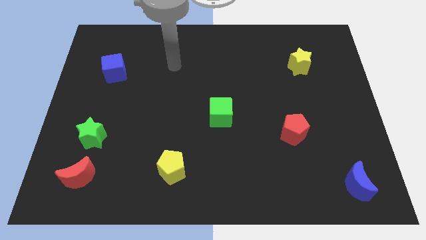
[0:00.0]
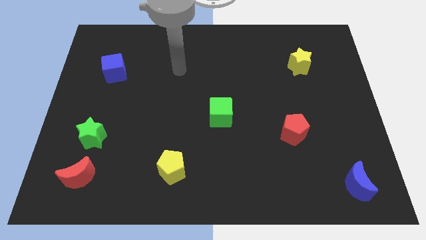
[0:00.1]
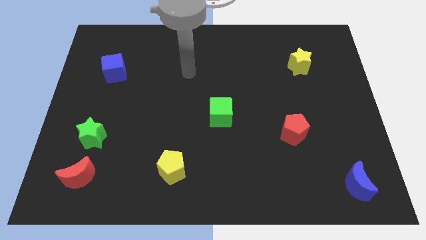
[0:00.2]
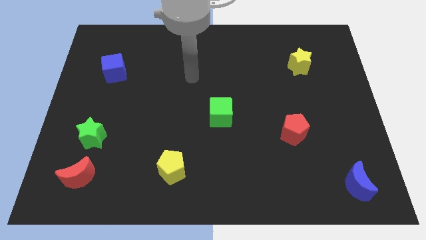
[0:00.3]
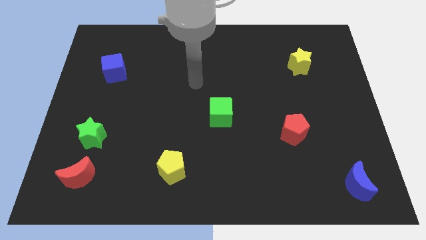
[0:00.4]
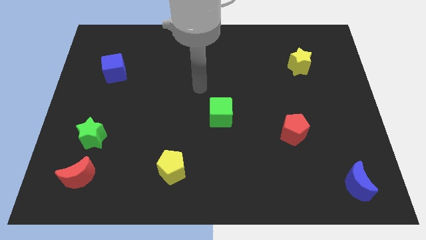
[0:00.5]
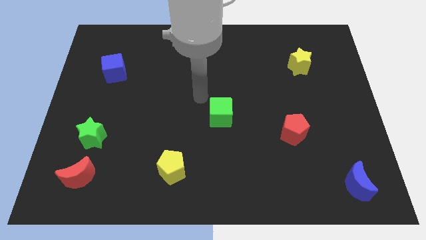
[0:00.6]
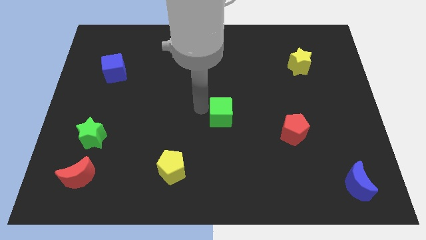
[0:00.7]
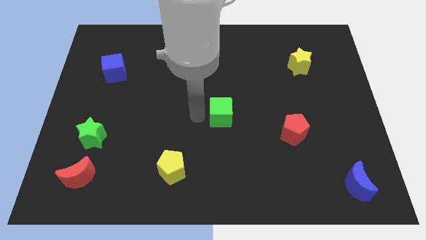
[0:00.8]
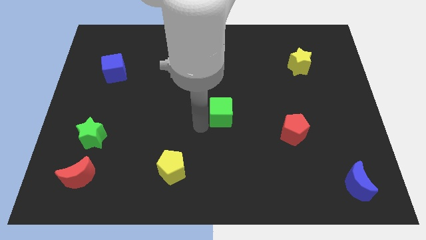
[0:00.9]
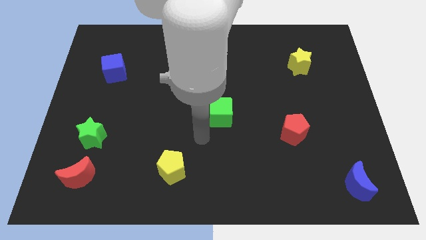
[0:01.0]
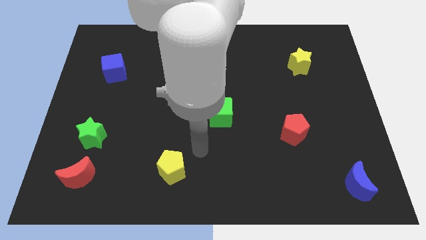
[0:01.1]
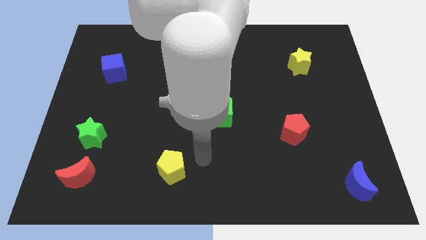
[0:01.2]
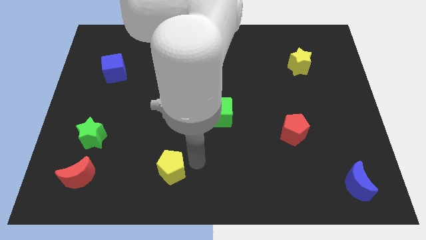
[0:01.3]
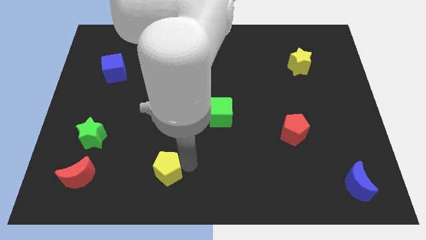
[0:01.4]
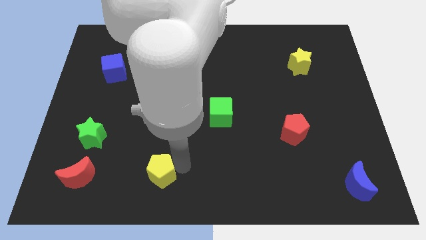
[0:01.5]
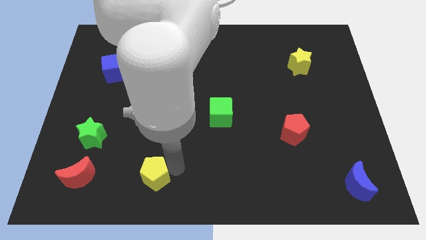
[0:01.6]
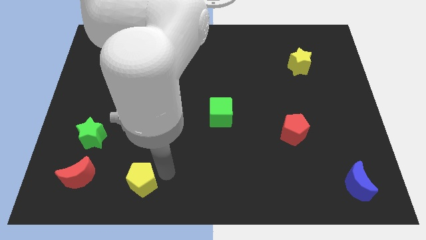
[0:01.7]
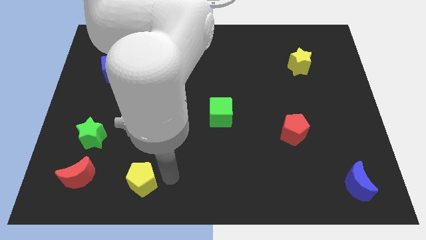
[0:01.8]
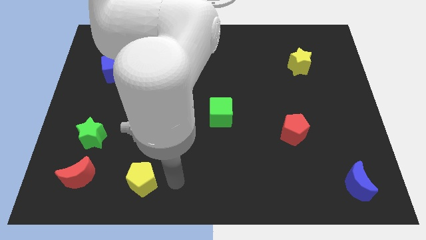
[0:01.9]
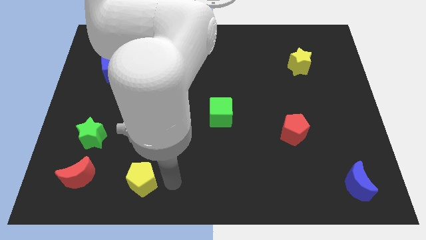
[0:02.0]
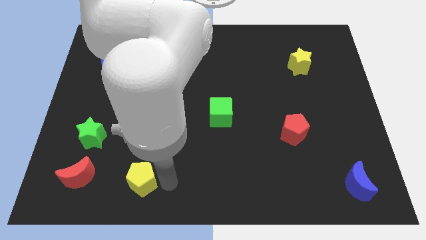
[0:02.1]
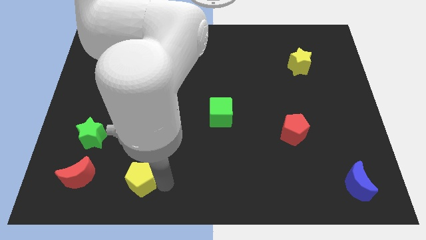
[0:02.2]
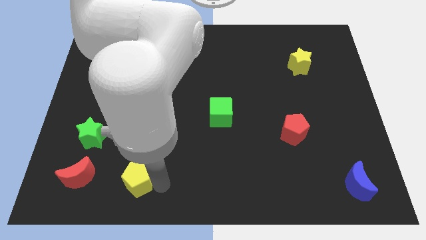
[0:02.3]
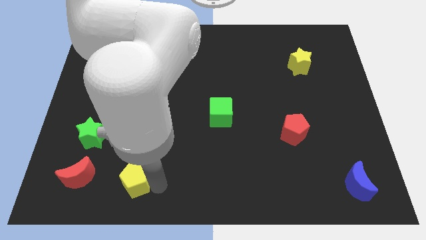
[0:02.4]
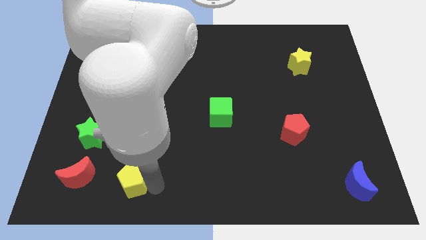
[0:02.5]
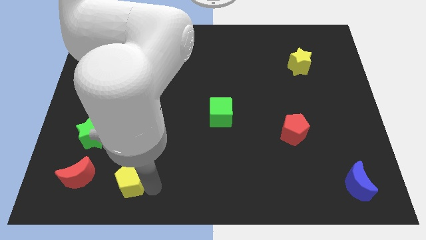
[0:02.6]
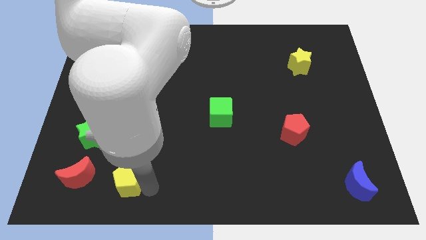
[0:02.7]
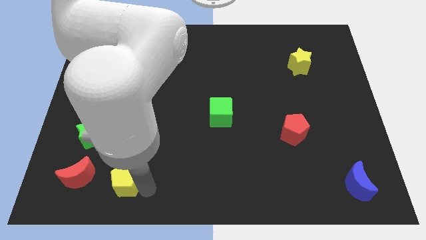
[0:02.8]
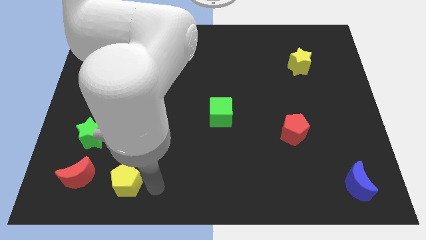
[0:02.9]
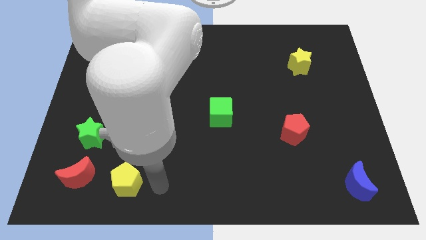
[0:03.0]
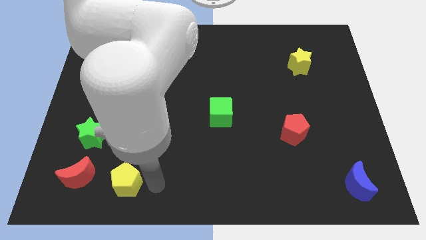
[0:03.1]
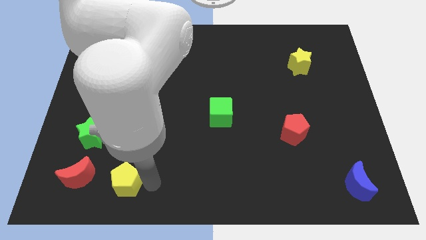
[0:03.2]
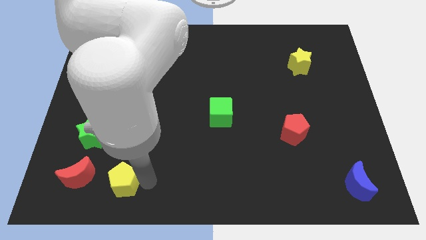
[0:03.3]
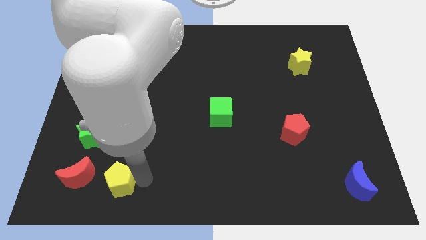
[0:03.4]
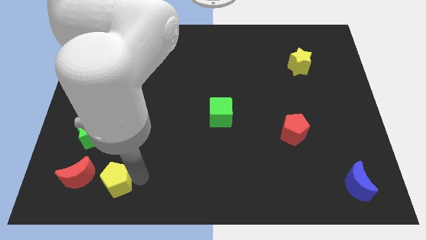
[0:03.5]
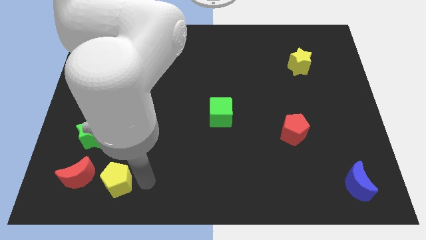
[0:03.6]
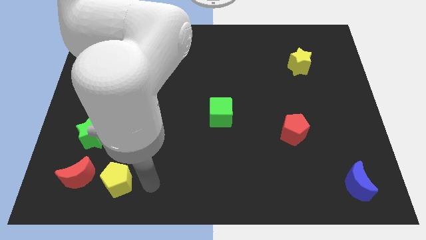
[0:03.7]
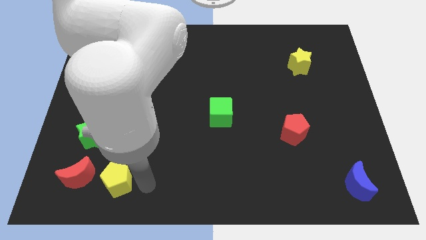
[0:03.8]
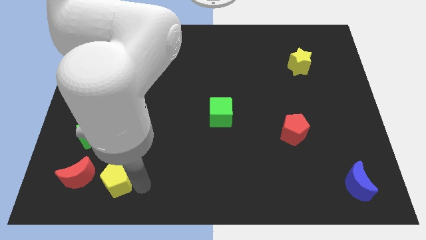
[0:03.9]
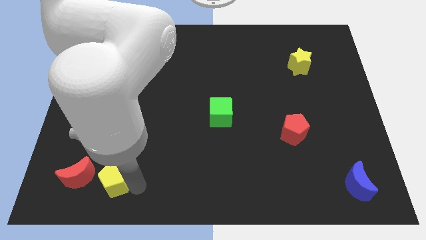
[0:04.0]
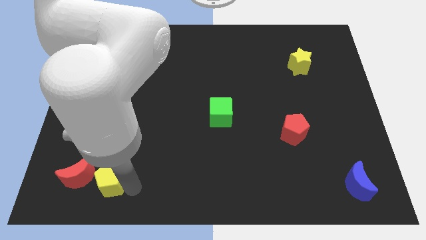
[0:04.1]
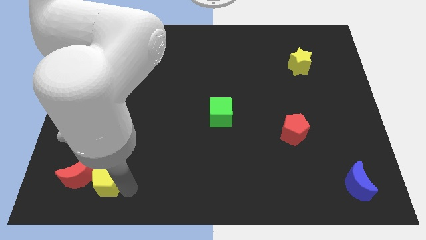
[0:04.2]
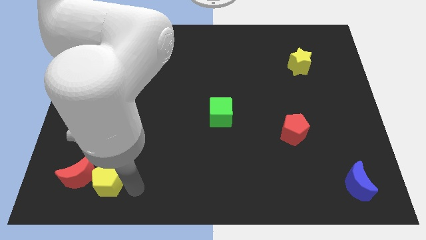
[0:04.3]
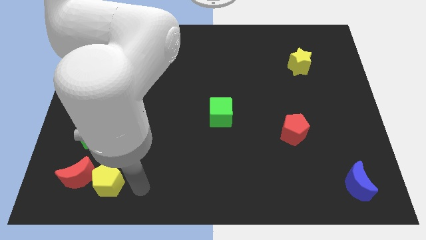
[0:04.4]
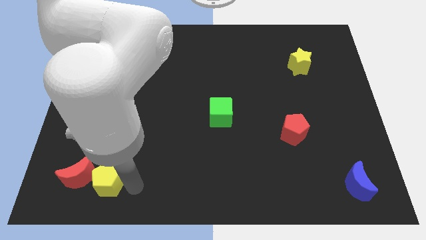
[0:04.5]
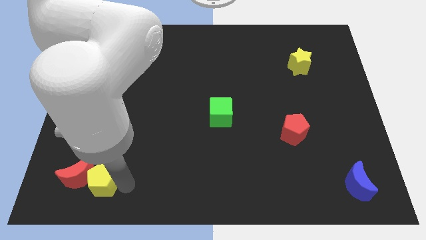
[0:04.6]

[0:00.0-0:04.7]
push the yellow pentagon close to the red moon

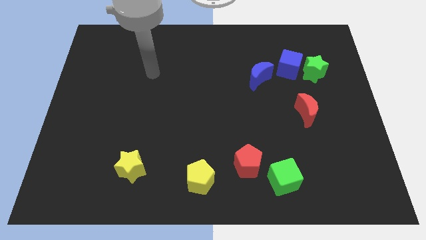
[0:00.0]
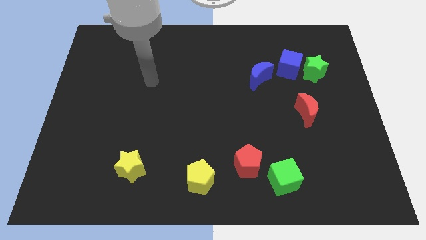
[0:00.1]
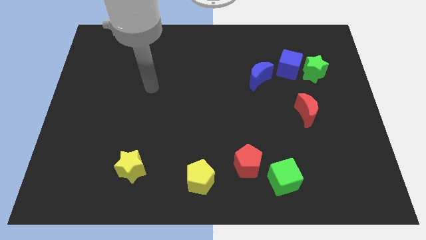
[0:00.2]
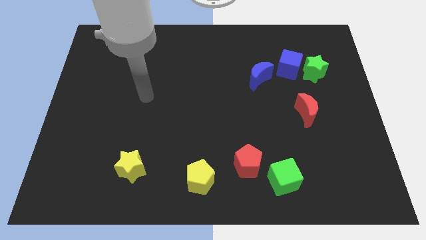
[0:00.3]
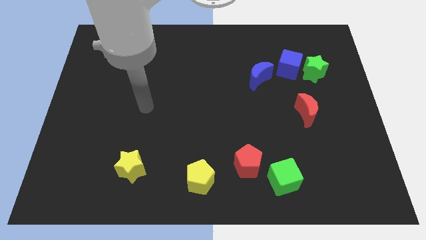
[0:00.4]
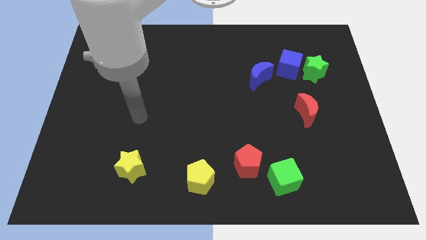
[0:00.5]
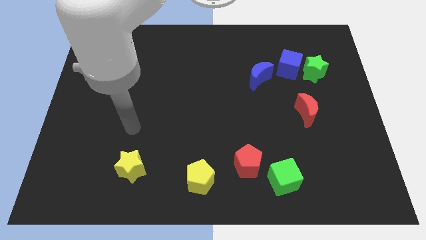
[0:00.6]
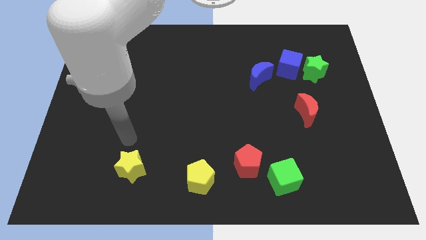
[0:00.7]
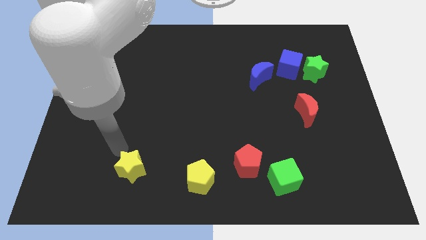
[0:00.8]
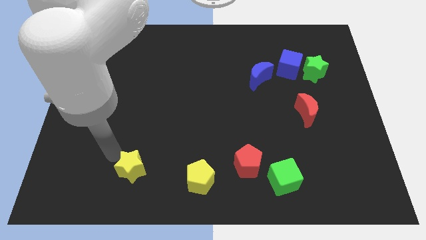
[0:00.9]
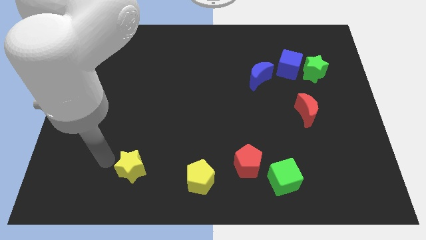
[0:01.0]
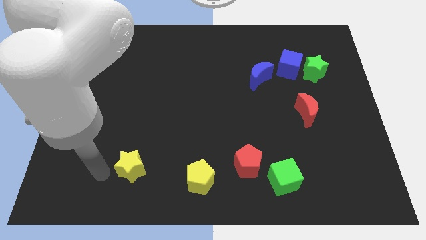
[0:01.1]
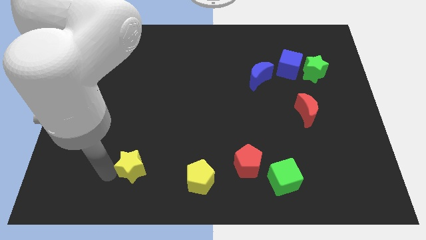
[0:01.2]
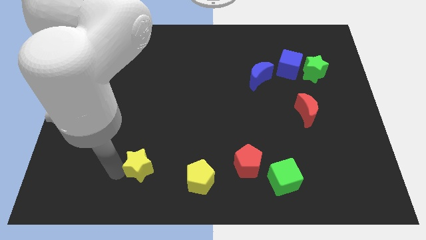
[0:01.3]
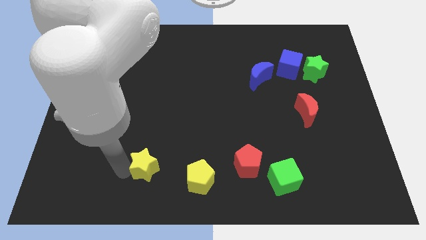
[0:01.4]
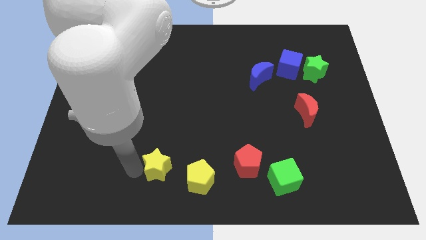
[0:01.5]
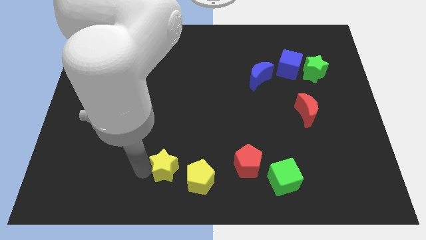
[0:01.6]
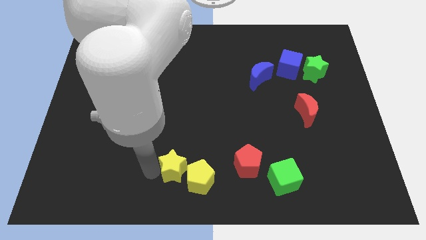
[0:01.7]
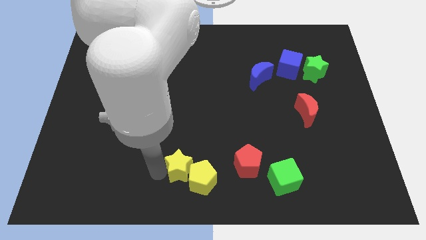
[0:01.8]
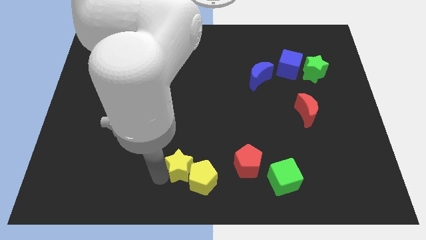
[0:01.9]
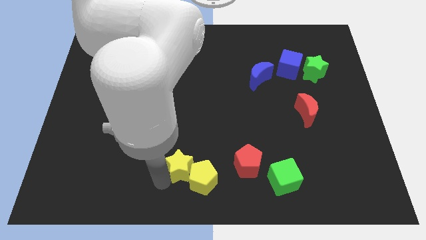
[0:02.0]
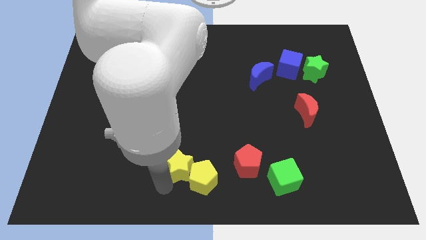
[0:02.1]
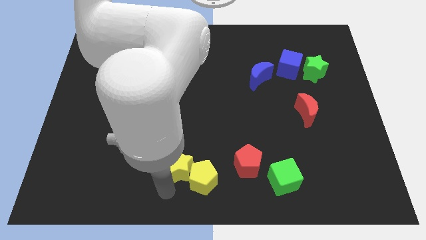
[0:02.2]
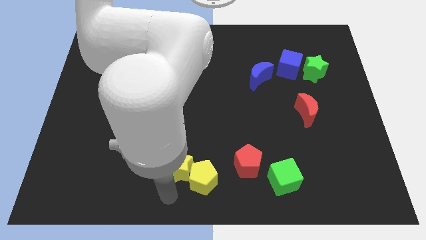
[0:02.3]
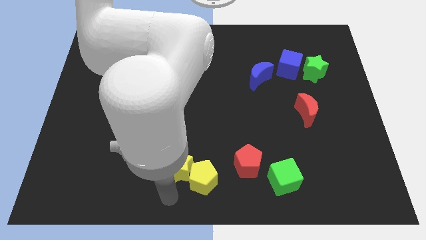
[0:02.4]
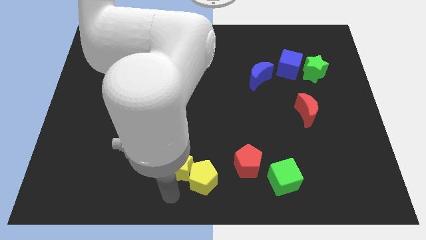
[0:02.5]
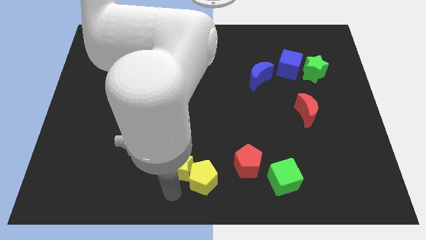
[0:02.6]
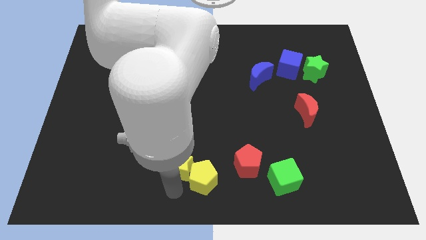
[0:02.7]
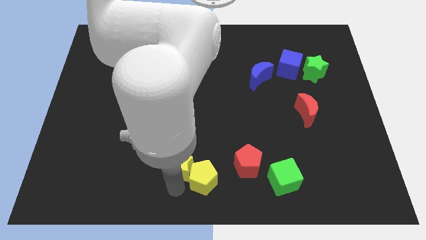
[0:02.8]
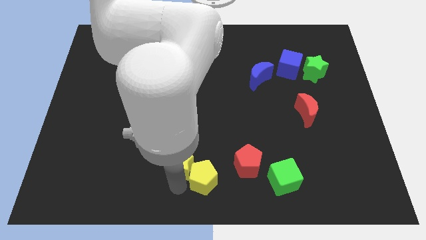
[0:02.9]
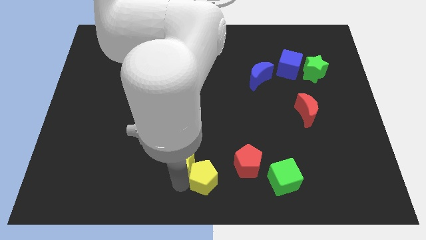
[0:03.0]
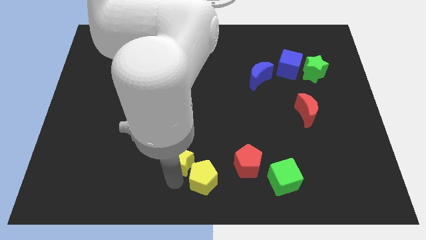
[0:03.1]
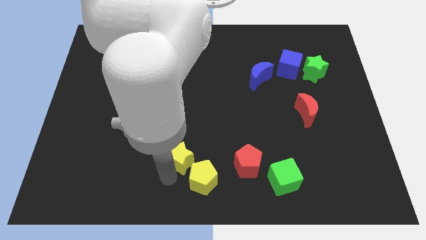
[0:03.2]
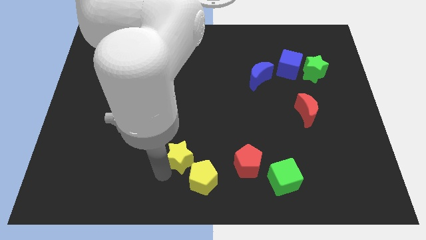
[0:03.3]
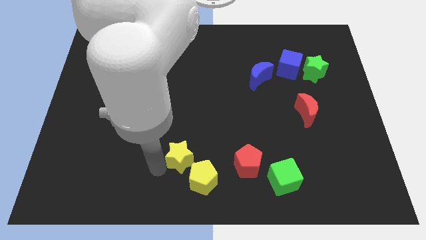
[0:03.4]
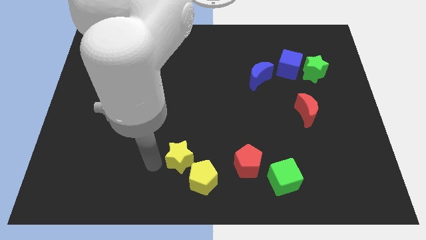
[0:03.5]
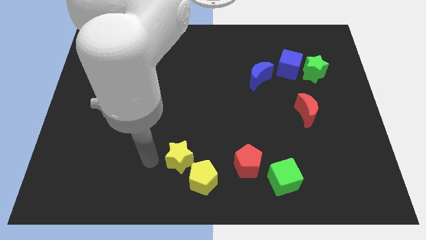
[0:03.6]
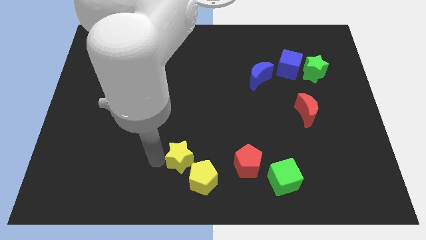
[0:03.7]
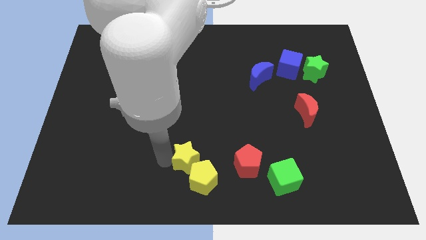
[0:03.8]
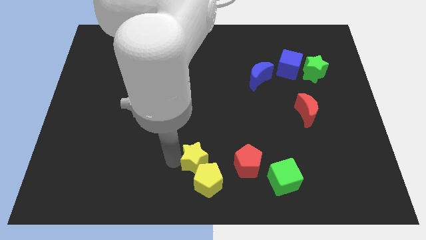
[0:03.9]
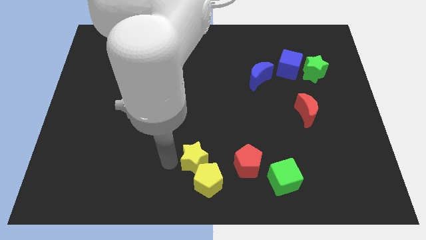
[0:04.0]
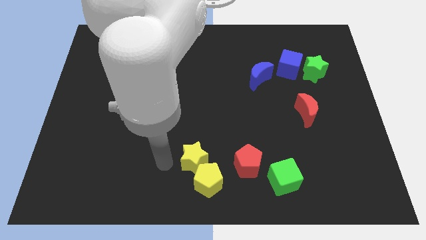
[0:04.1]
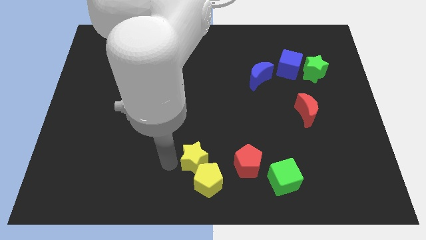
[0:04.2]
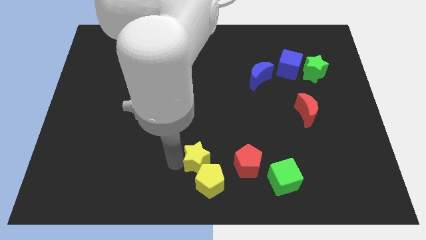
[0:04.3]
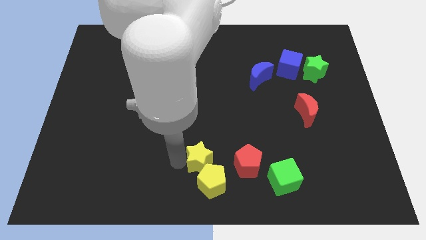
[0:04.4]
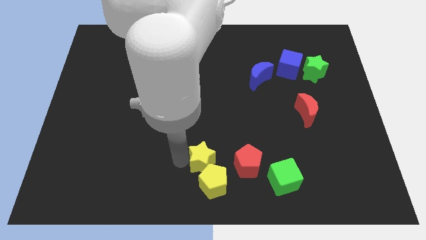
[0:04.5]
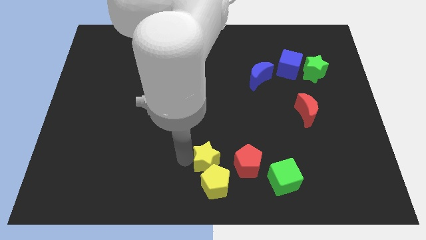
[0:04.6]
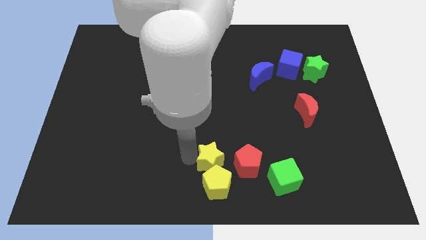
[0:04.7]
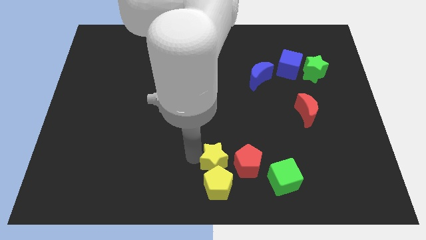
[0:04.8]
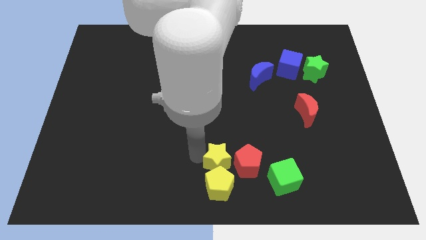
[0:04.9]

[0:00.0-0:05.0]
put the yellow star to the red pentagon
